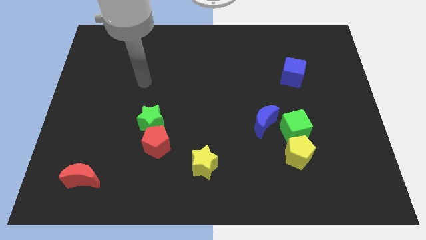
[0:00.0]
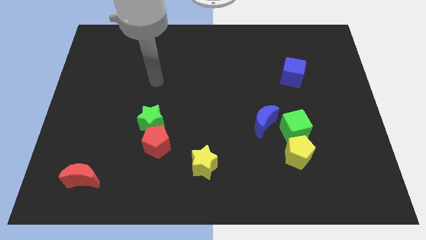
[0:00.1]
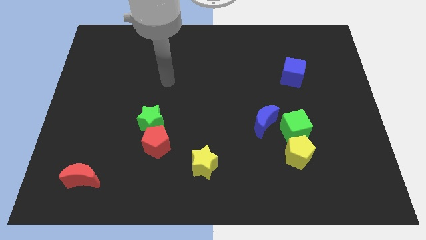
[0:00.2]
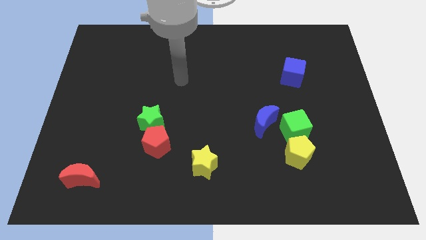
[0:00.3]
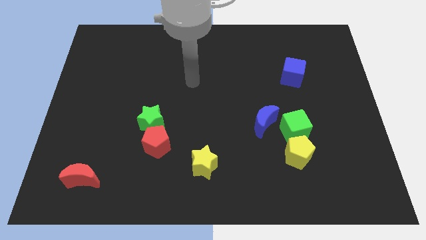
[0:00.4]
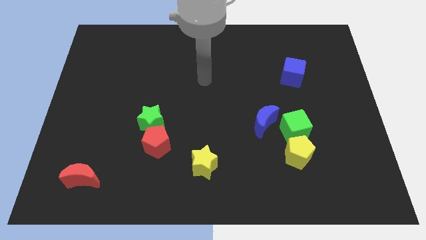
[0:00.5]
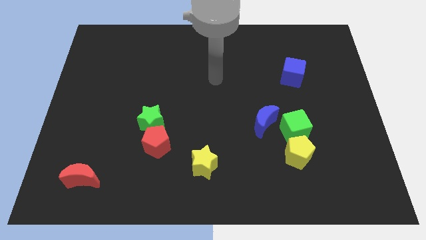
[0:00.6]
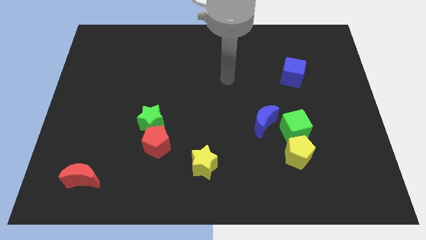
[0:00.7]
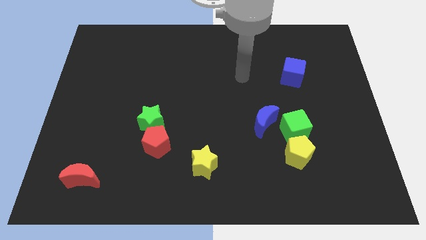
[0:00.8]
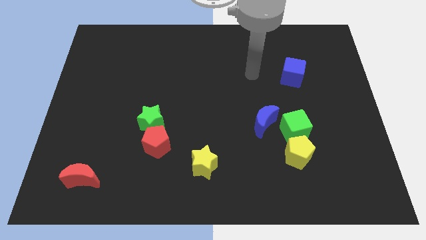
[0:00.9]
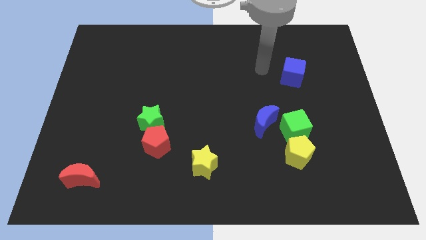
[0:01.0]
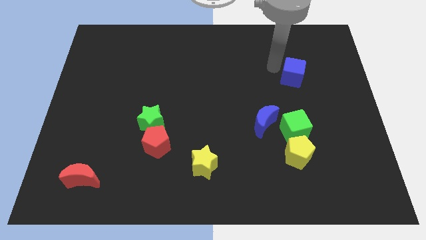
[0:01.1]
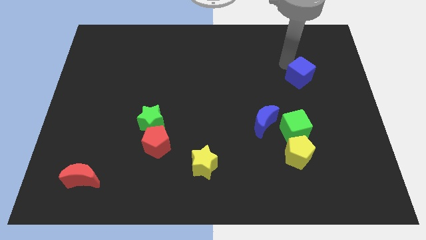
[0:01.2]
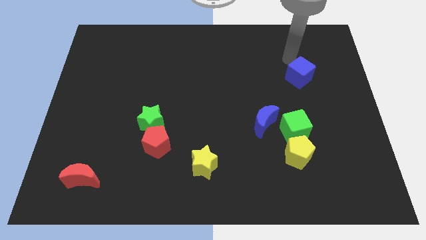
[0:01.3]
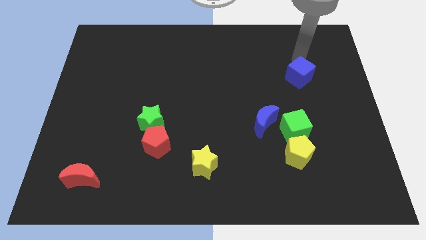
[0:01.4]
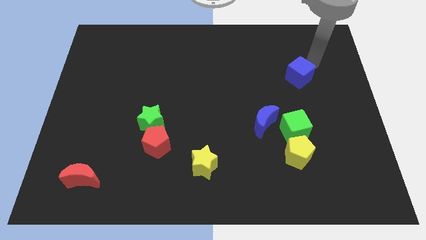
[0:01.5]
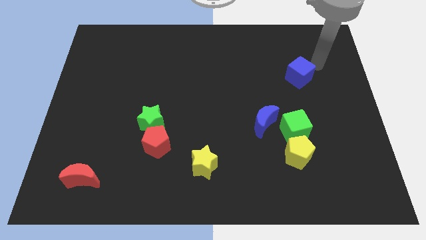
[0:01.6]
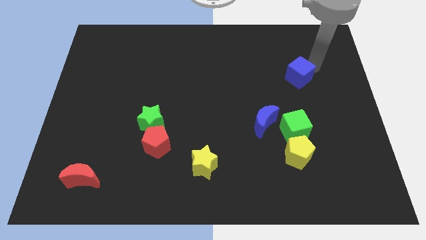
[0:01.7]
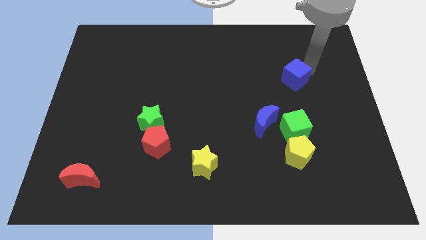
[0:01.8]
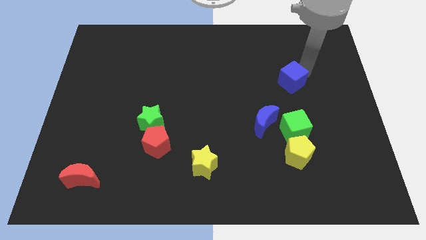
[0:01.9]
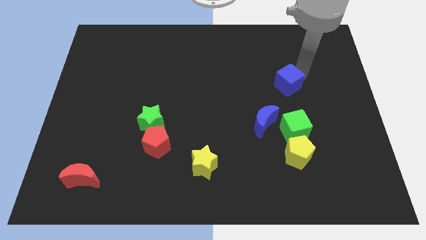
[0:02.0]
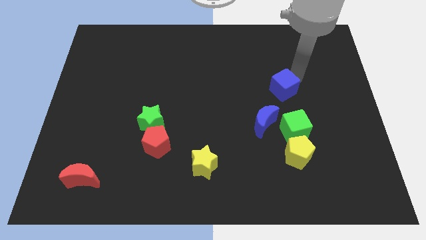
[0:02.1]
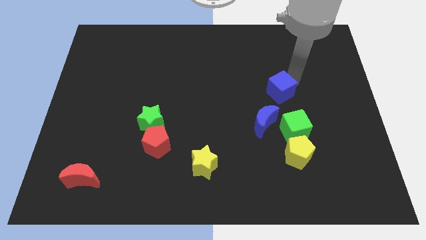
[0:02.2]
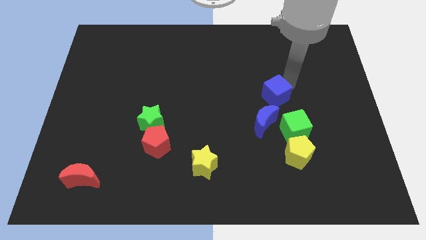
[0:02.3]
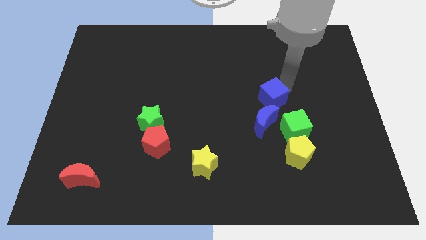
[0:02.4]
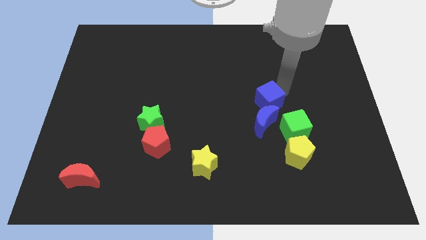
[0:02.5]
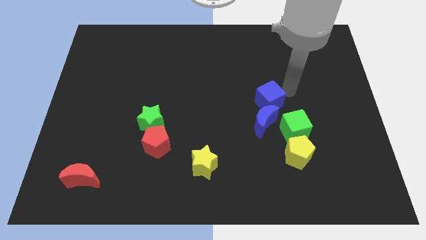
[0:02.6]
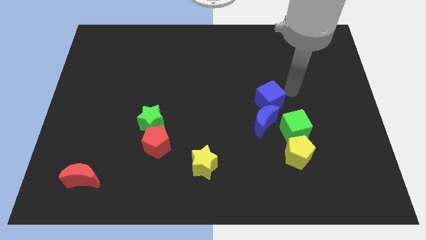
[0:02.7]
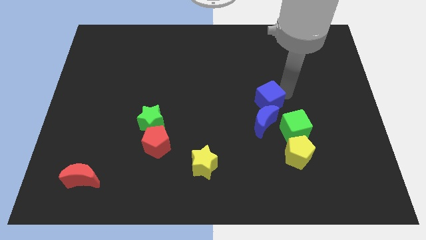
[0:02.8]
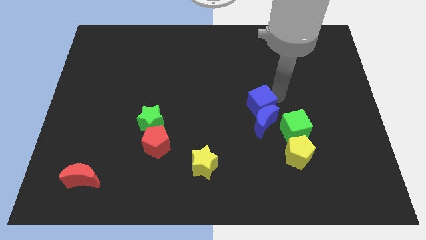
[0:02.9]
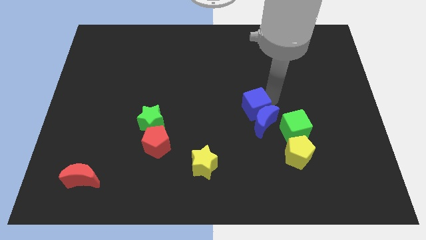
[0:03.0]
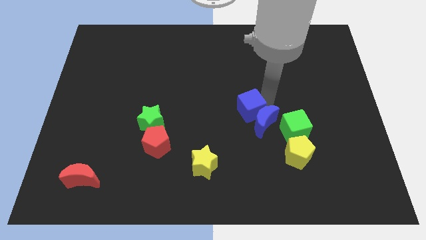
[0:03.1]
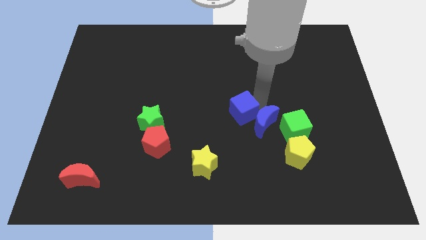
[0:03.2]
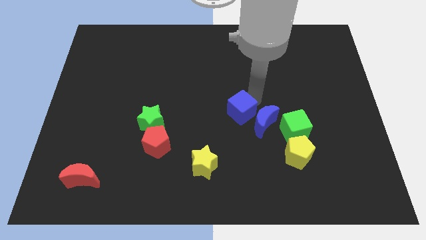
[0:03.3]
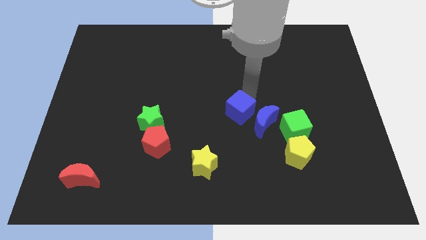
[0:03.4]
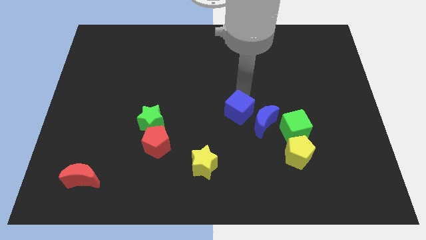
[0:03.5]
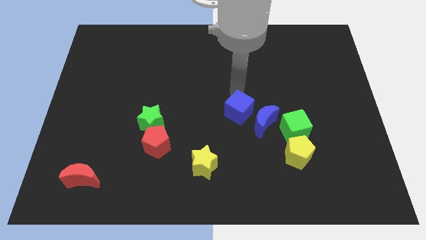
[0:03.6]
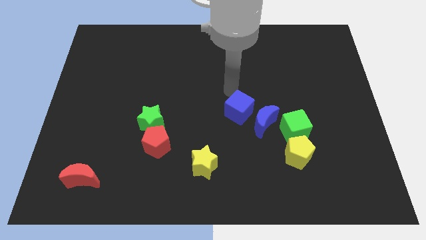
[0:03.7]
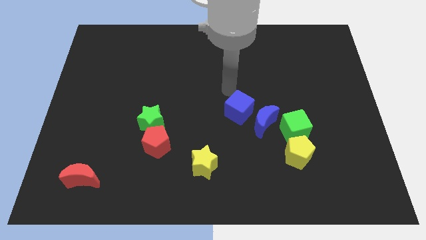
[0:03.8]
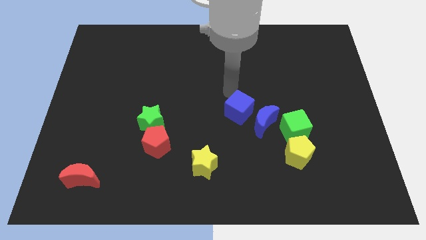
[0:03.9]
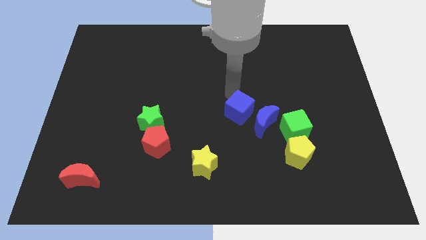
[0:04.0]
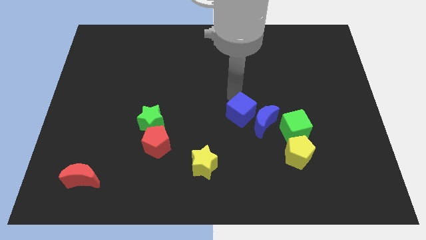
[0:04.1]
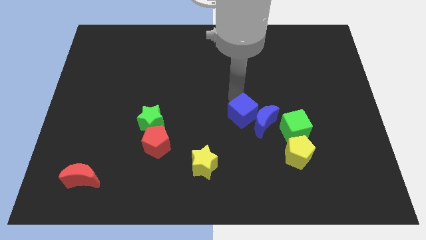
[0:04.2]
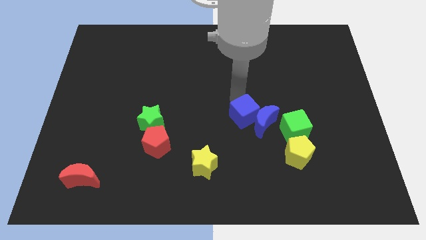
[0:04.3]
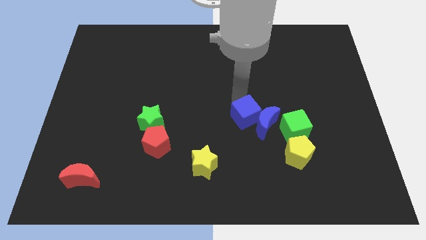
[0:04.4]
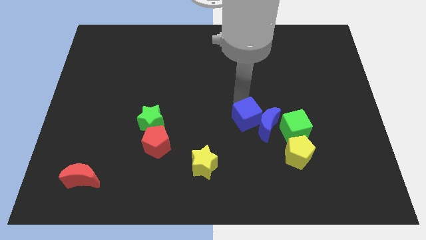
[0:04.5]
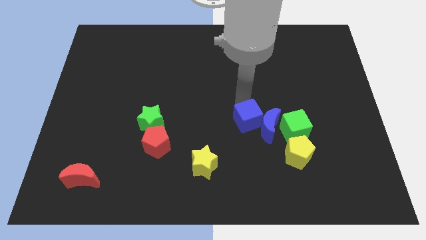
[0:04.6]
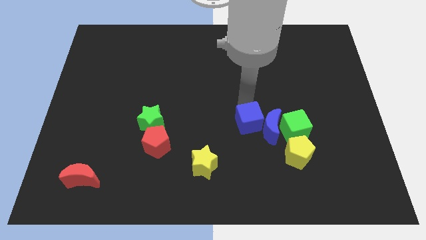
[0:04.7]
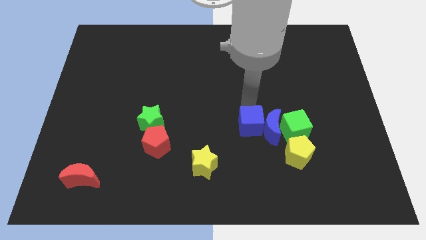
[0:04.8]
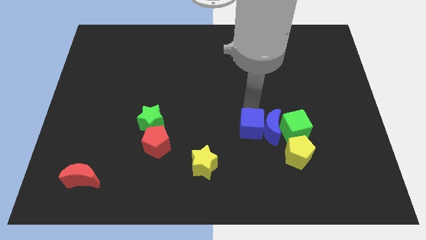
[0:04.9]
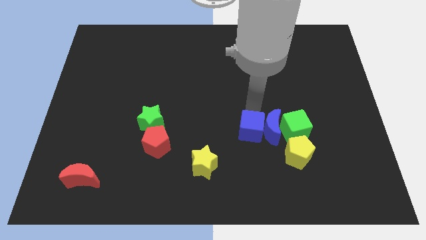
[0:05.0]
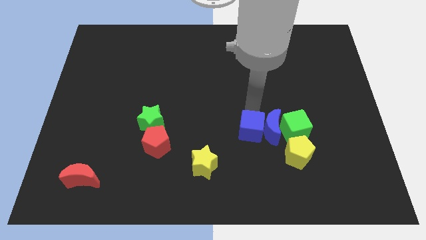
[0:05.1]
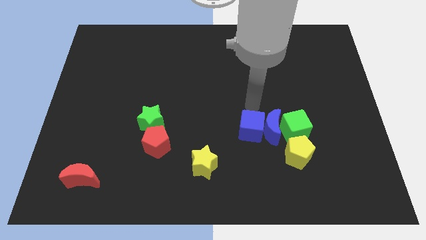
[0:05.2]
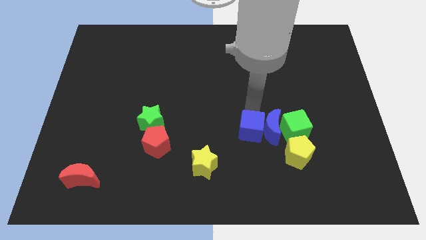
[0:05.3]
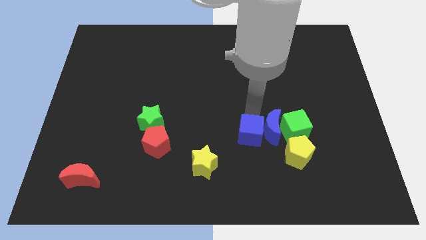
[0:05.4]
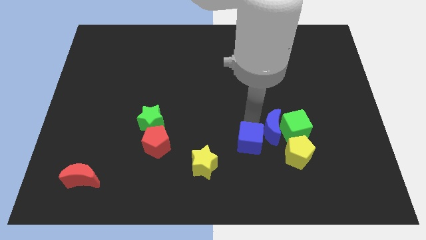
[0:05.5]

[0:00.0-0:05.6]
push the blue cube to the left of the yellow pentagon

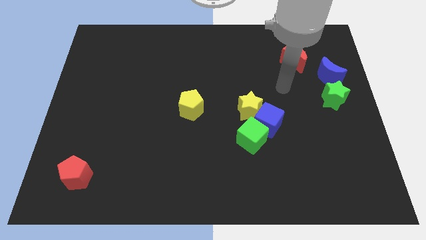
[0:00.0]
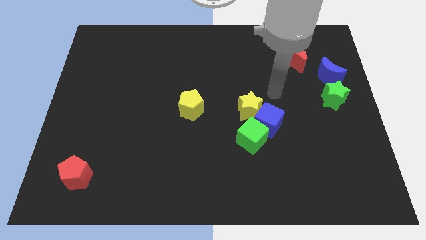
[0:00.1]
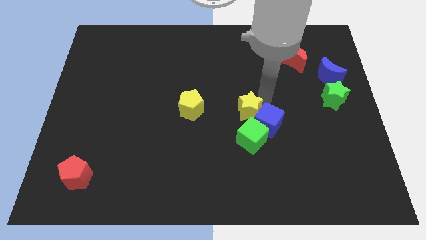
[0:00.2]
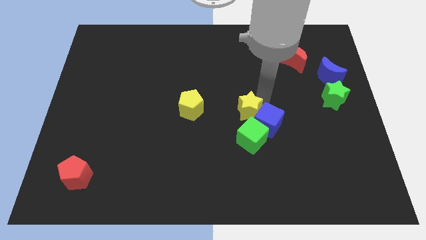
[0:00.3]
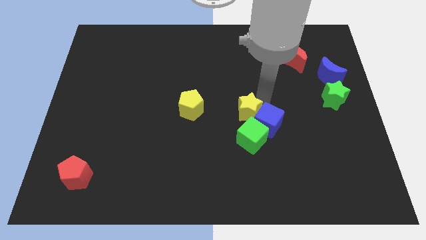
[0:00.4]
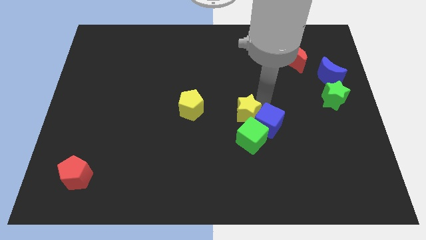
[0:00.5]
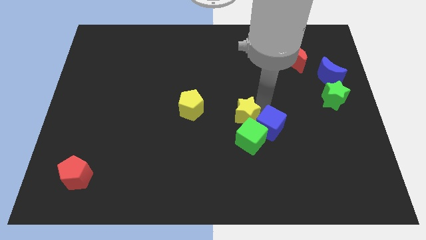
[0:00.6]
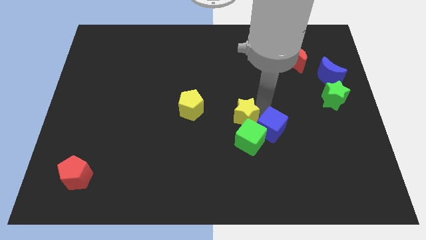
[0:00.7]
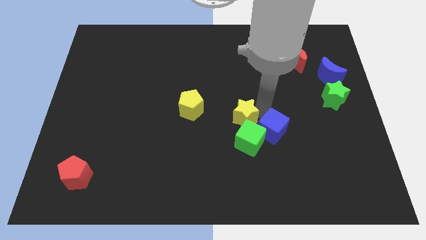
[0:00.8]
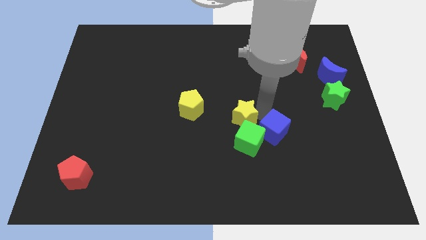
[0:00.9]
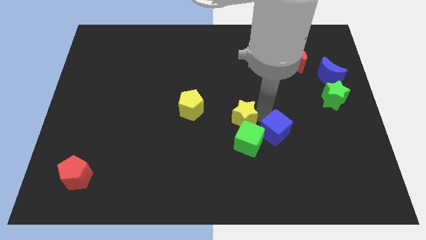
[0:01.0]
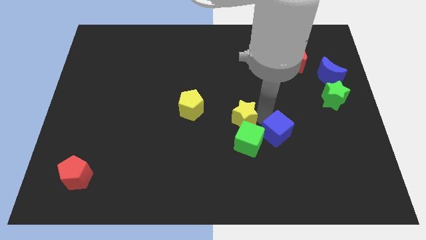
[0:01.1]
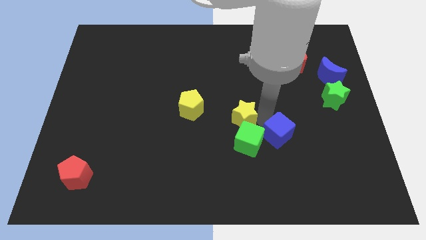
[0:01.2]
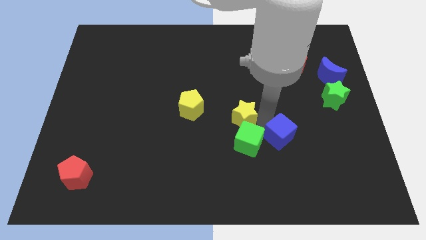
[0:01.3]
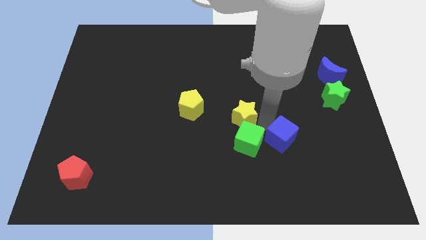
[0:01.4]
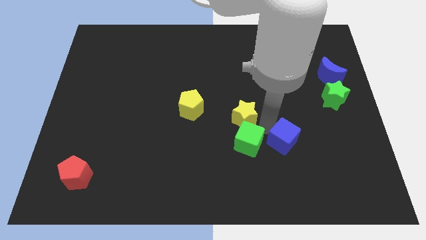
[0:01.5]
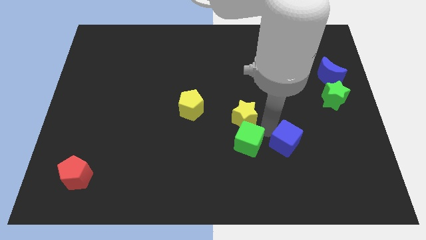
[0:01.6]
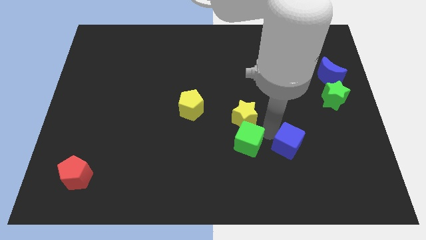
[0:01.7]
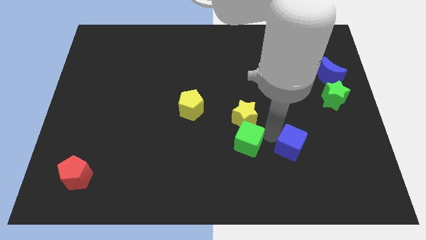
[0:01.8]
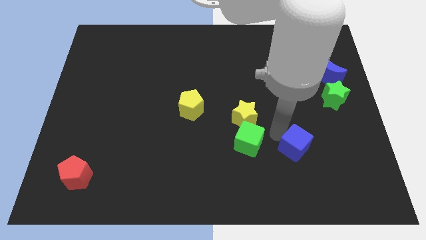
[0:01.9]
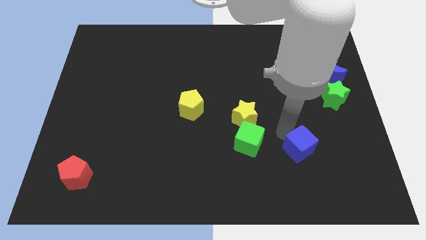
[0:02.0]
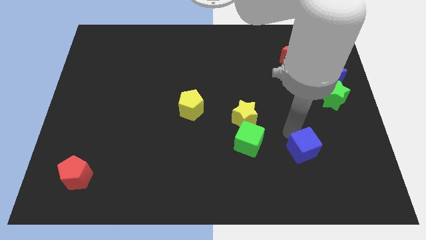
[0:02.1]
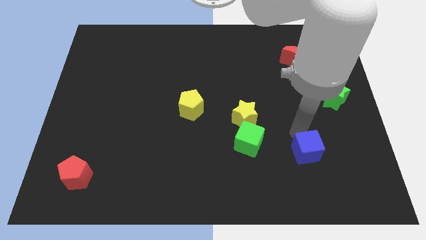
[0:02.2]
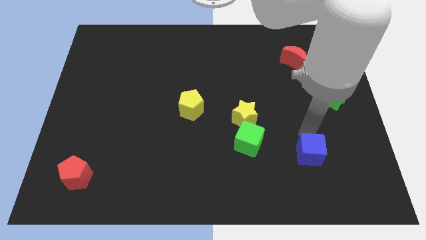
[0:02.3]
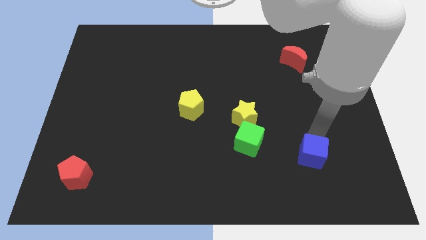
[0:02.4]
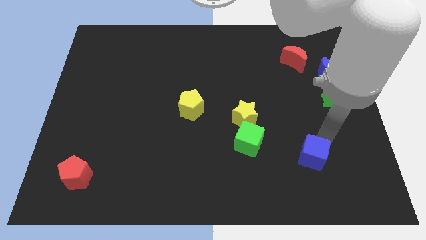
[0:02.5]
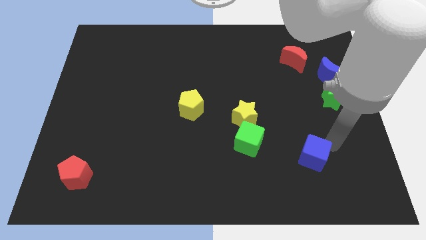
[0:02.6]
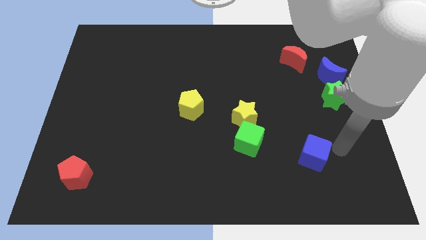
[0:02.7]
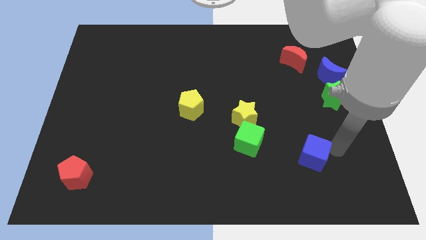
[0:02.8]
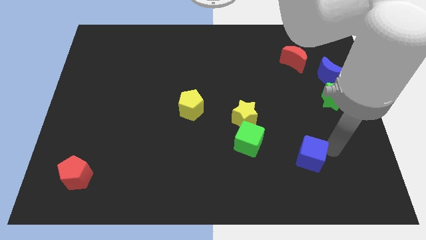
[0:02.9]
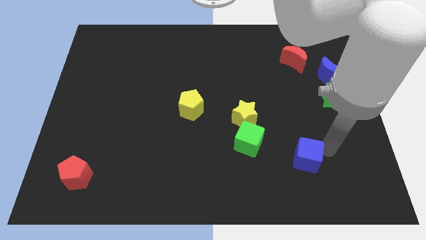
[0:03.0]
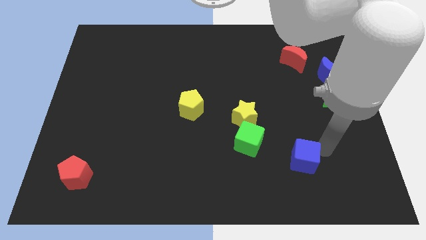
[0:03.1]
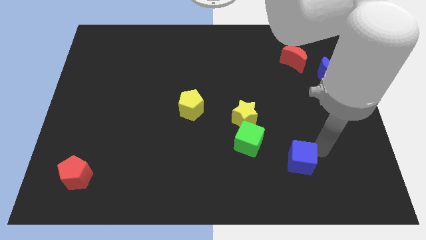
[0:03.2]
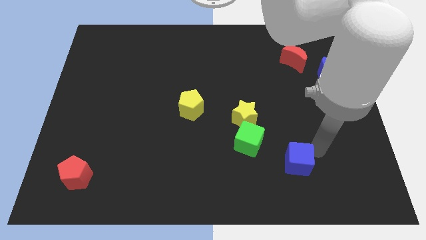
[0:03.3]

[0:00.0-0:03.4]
slide the blue cube to the bottom right side of the green cube
